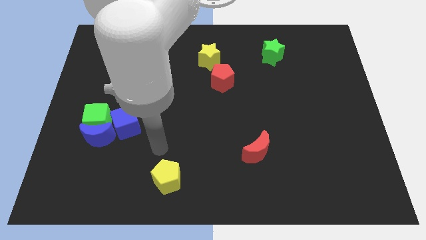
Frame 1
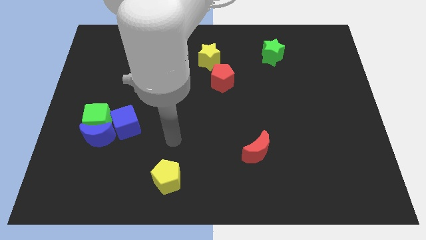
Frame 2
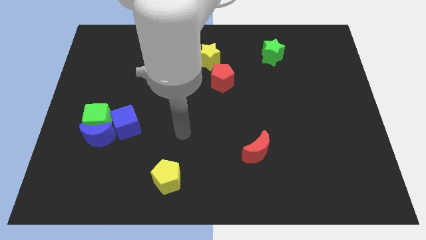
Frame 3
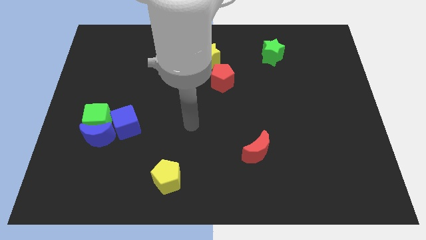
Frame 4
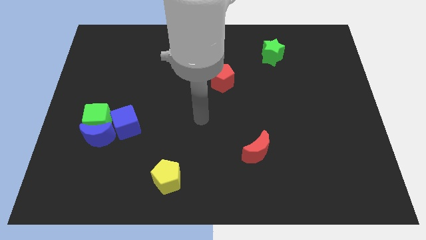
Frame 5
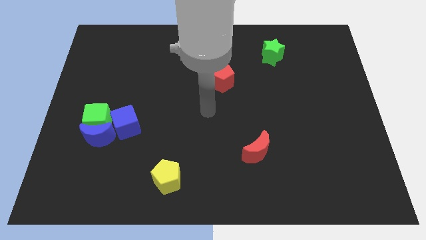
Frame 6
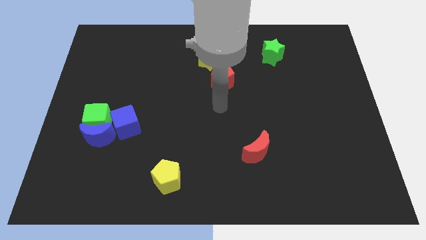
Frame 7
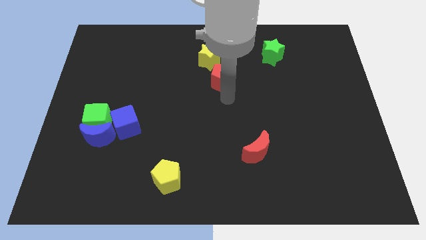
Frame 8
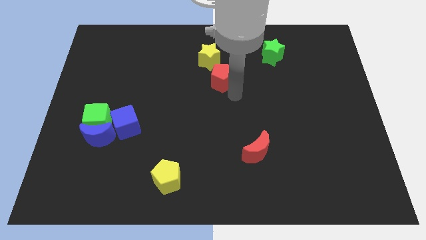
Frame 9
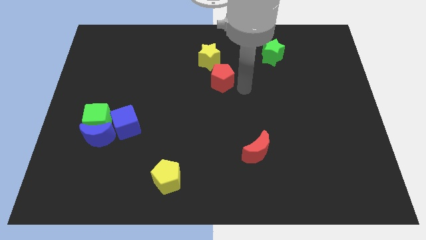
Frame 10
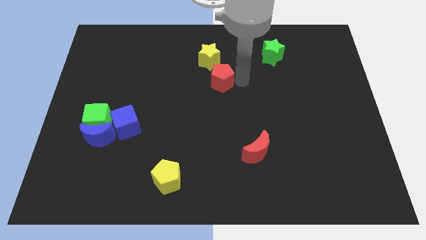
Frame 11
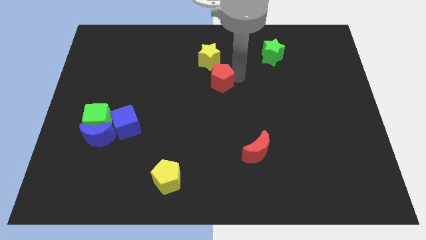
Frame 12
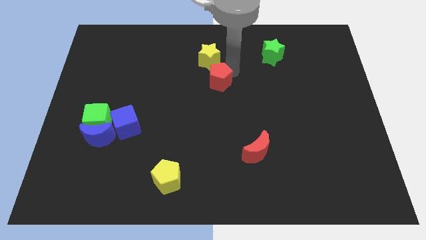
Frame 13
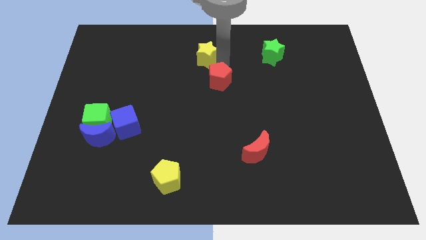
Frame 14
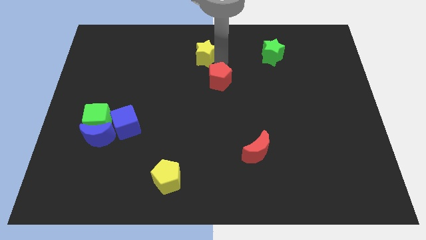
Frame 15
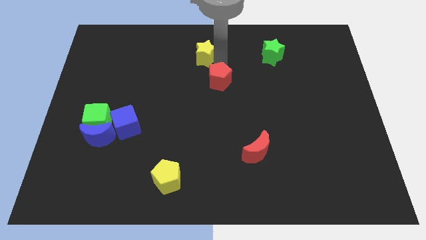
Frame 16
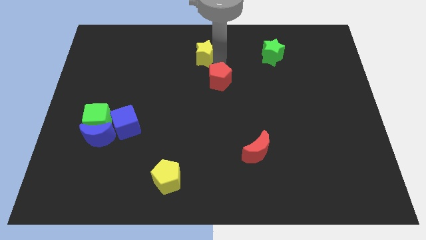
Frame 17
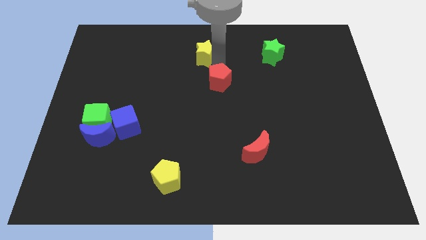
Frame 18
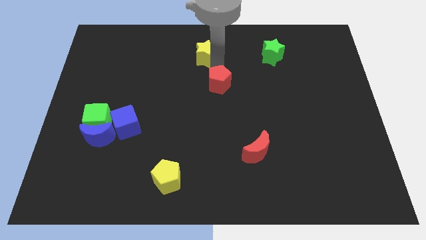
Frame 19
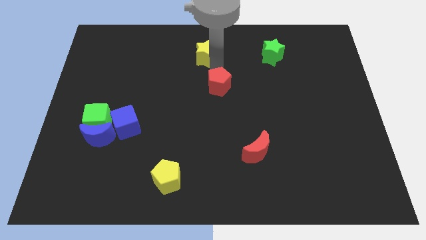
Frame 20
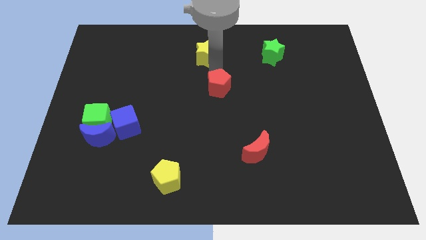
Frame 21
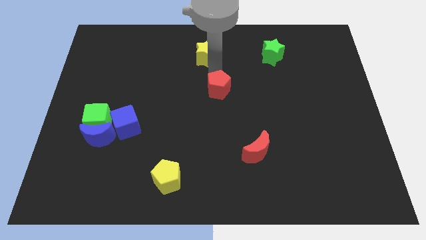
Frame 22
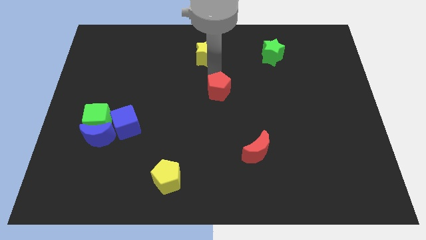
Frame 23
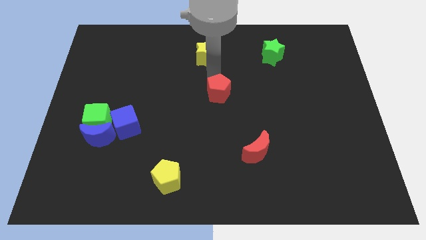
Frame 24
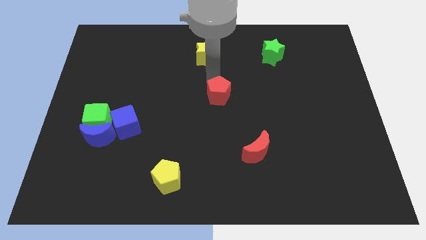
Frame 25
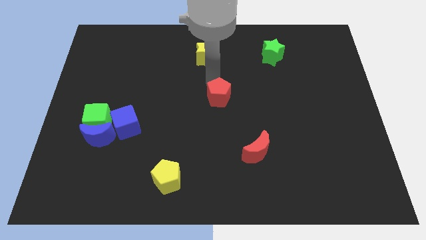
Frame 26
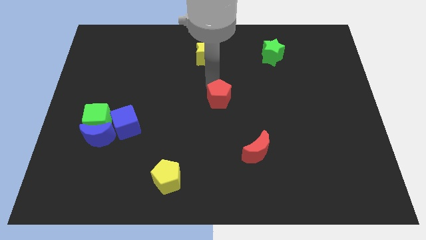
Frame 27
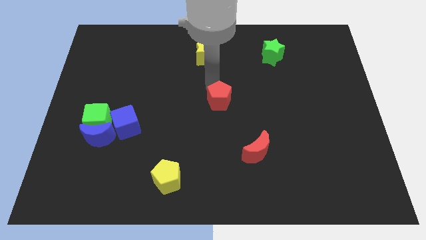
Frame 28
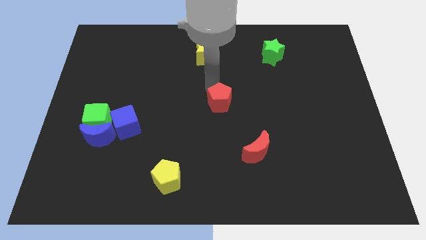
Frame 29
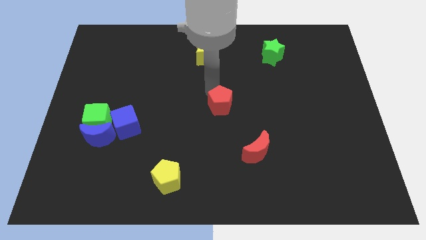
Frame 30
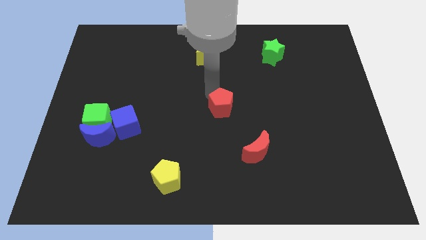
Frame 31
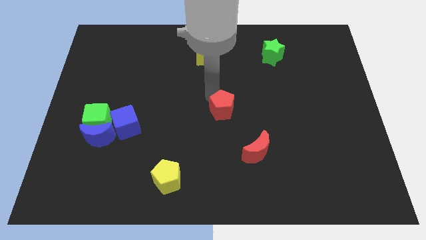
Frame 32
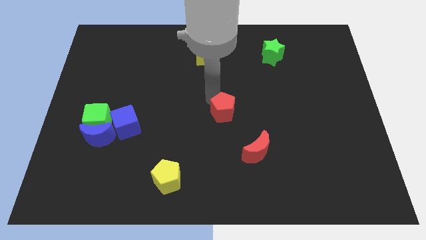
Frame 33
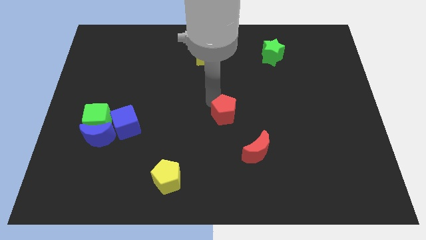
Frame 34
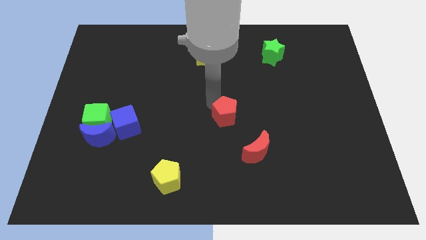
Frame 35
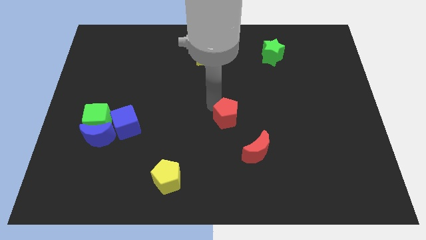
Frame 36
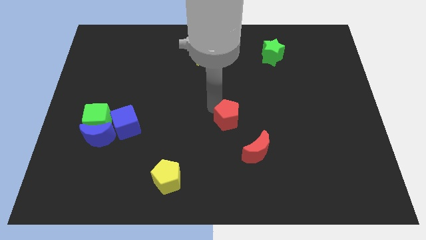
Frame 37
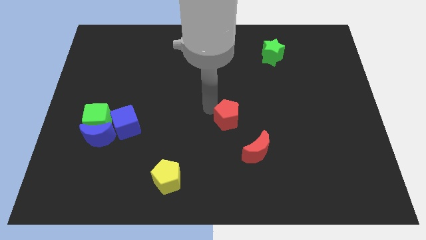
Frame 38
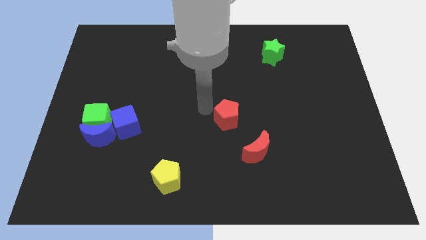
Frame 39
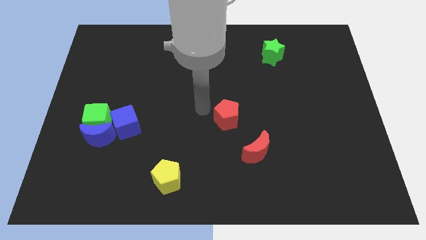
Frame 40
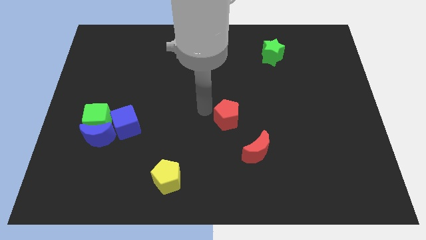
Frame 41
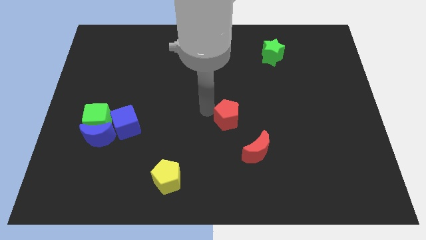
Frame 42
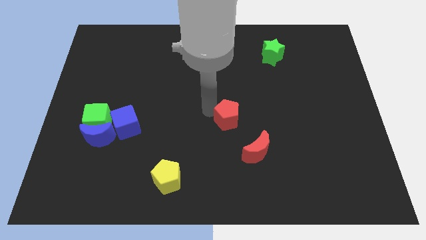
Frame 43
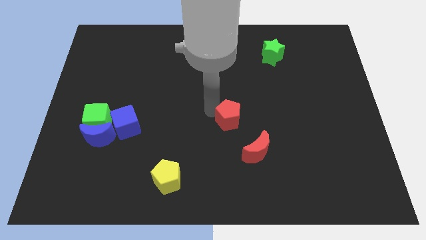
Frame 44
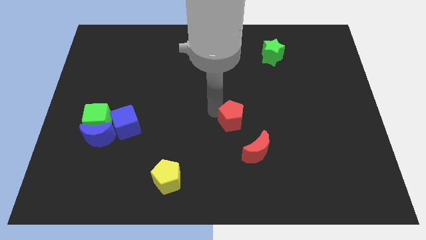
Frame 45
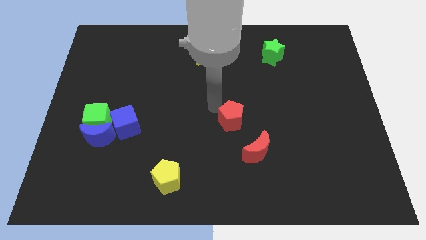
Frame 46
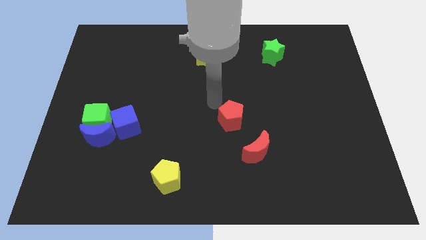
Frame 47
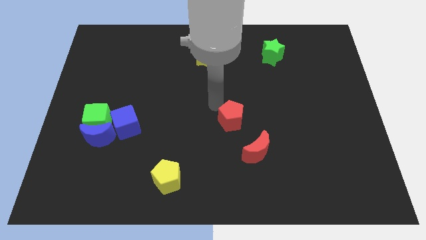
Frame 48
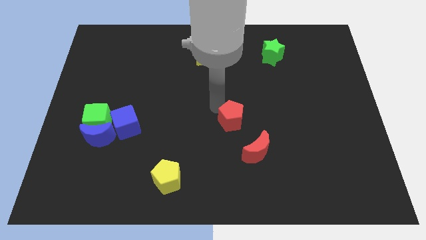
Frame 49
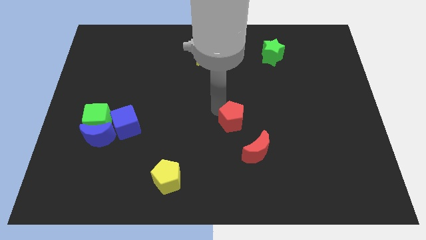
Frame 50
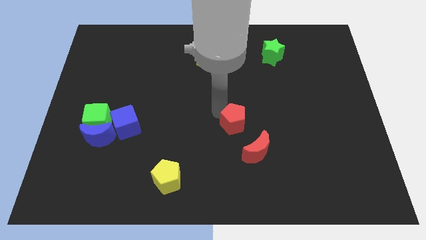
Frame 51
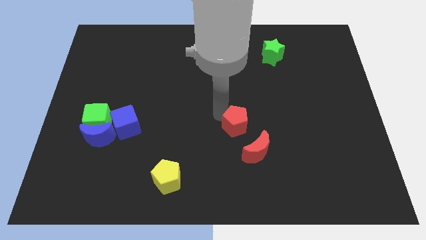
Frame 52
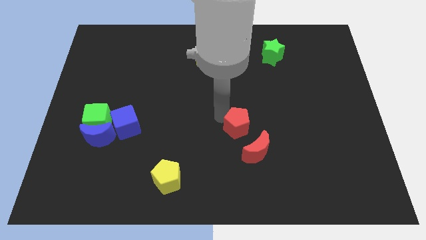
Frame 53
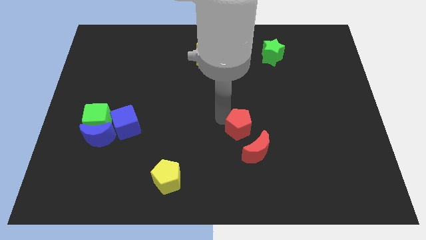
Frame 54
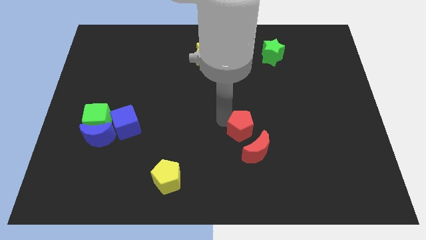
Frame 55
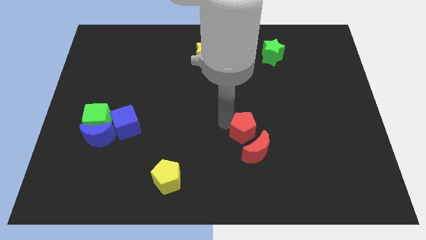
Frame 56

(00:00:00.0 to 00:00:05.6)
slide the red pentagon towards the red moon

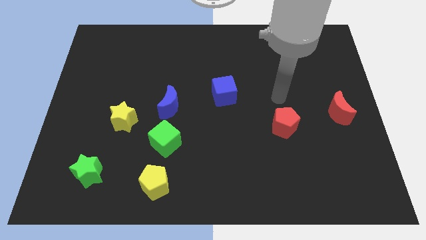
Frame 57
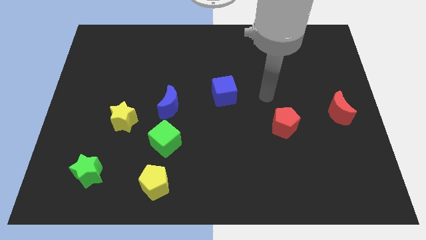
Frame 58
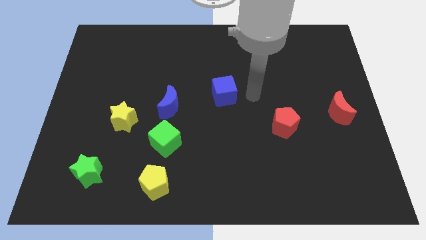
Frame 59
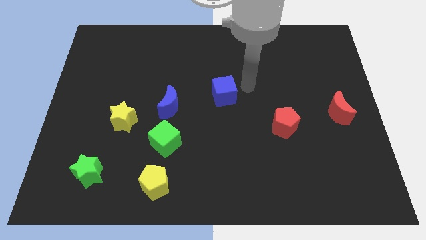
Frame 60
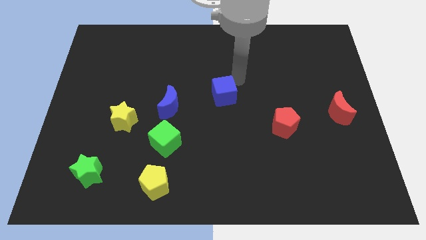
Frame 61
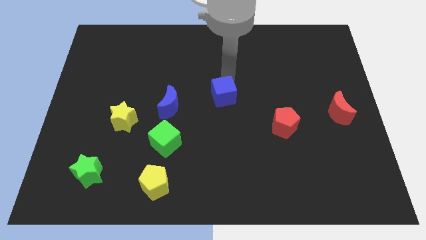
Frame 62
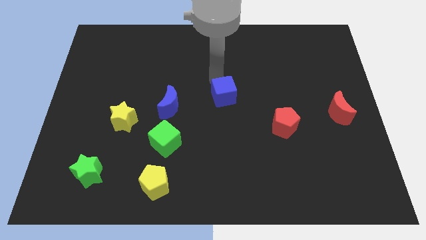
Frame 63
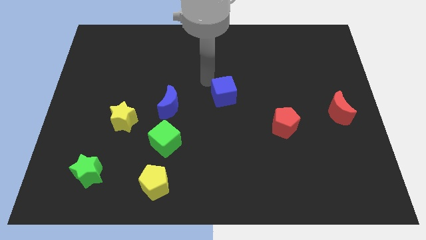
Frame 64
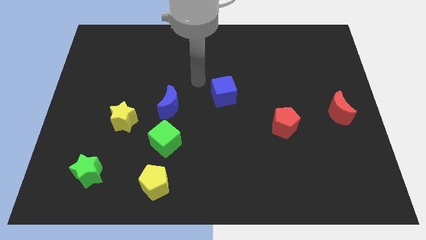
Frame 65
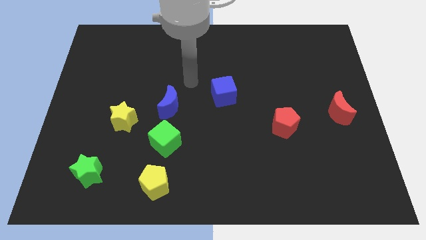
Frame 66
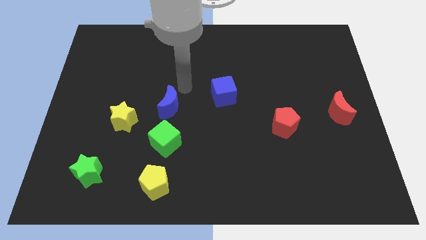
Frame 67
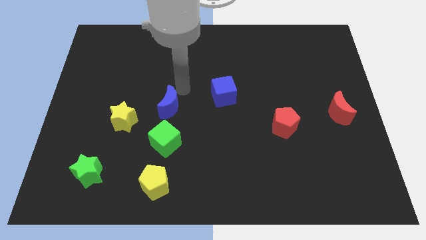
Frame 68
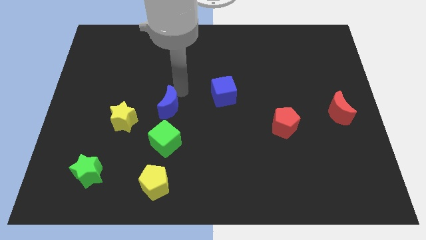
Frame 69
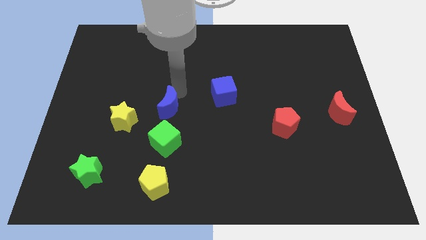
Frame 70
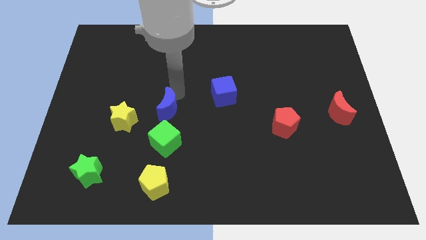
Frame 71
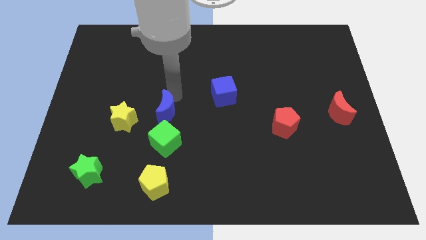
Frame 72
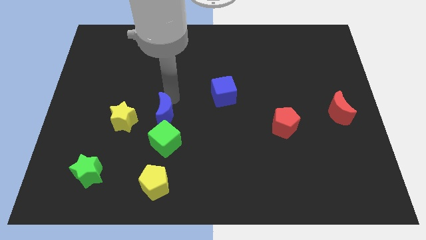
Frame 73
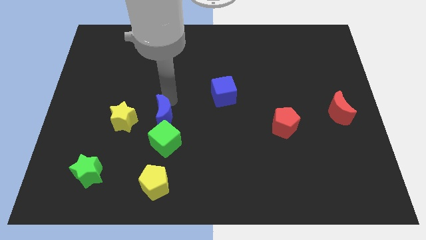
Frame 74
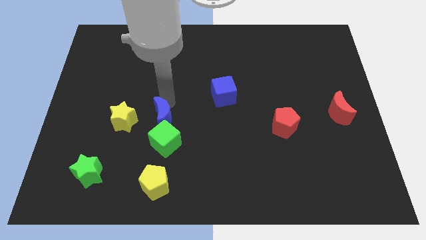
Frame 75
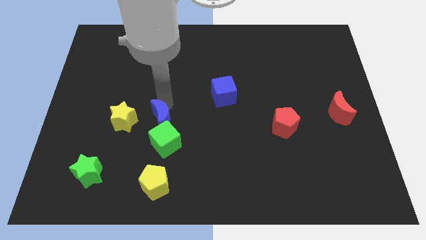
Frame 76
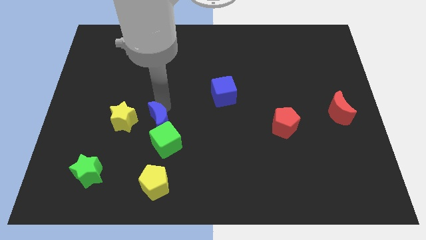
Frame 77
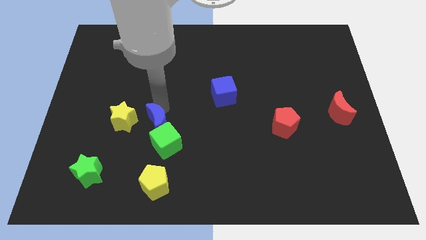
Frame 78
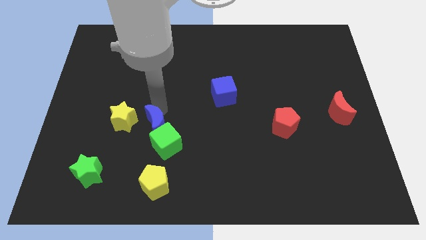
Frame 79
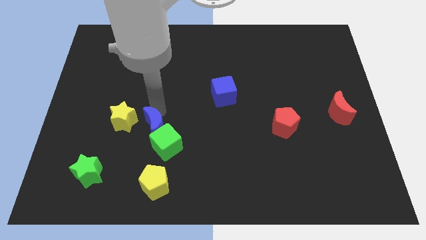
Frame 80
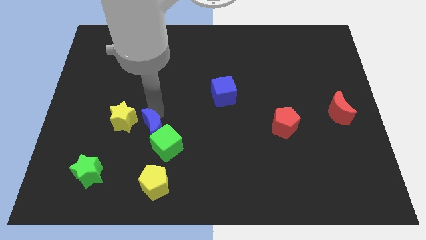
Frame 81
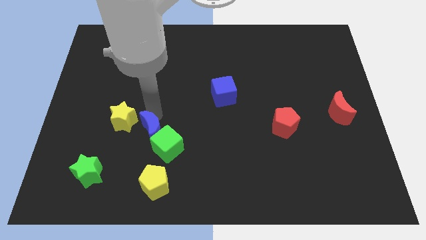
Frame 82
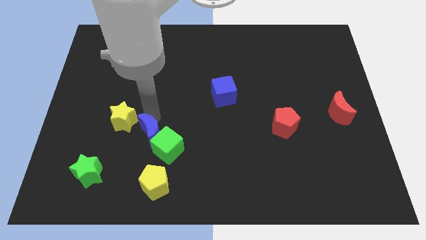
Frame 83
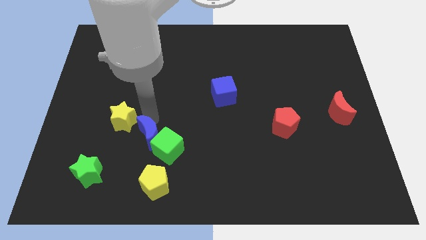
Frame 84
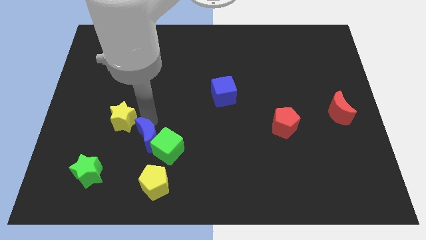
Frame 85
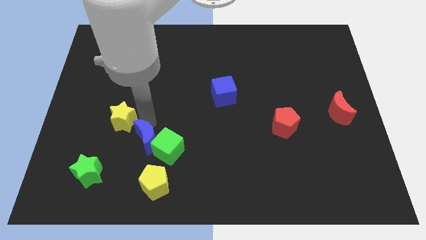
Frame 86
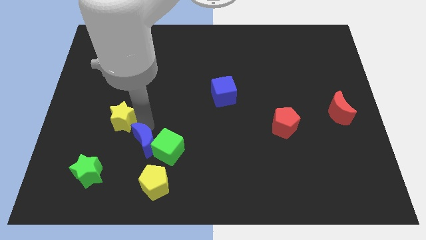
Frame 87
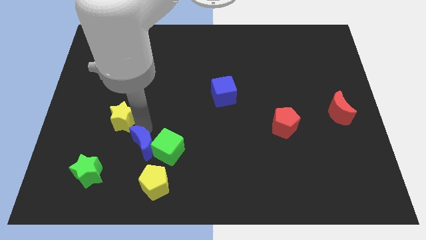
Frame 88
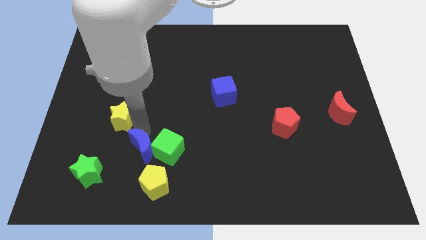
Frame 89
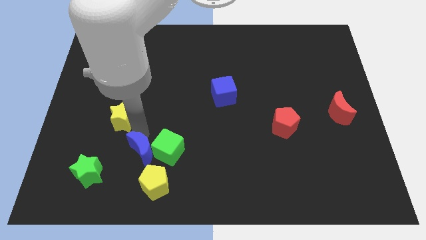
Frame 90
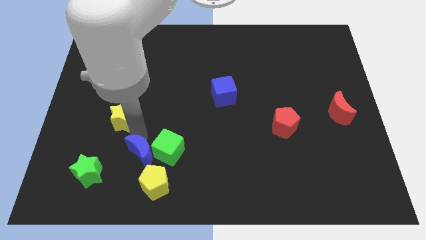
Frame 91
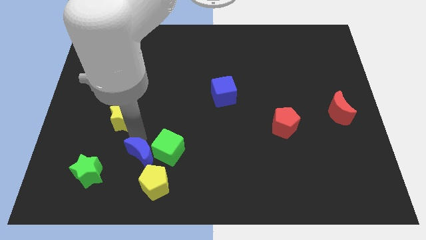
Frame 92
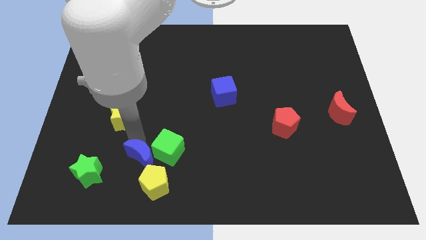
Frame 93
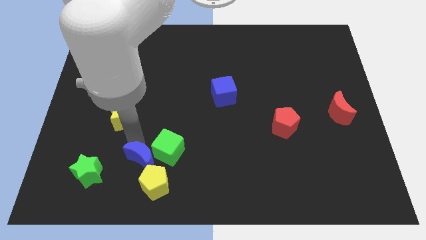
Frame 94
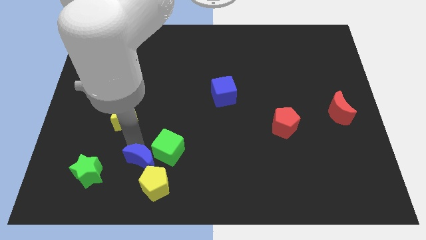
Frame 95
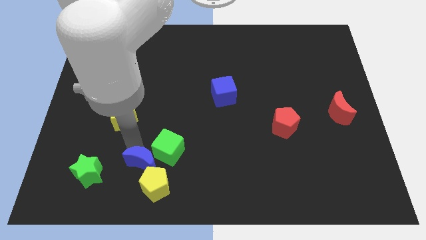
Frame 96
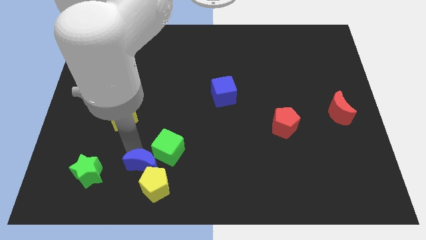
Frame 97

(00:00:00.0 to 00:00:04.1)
move the blue moon next to the yellow pentagon
